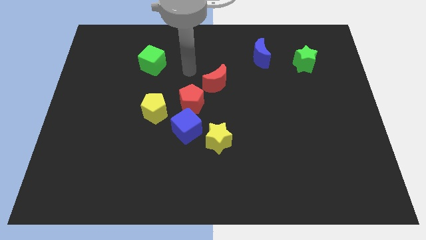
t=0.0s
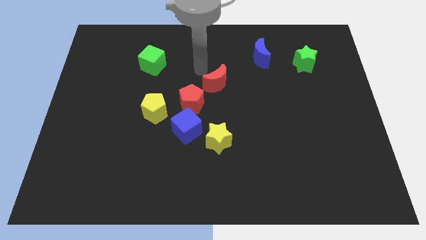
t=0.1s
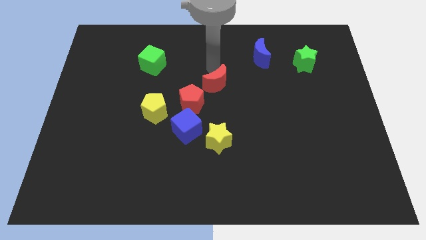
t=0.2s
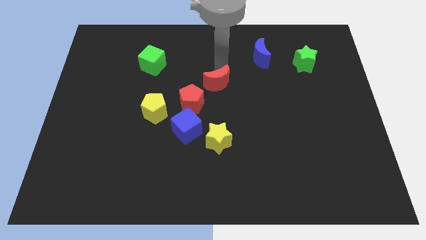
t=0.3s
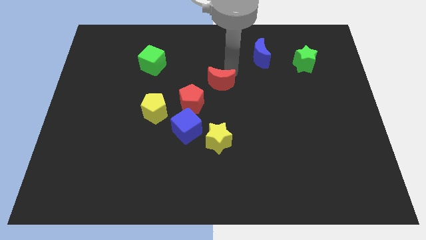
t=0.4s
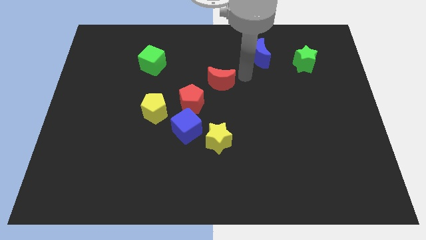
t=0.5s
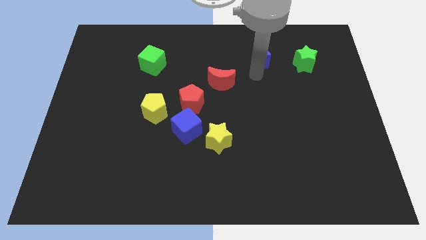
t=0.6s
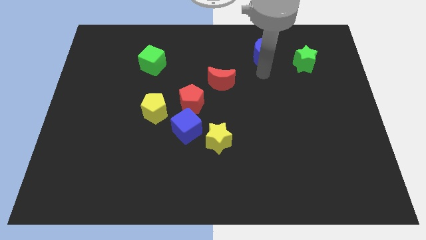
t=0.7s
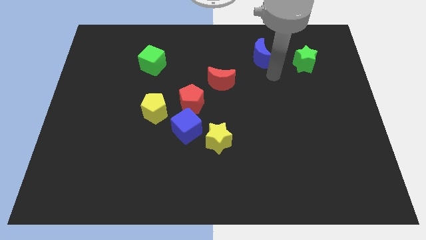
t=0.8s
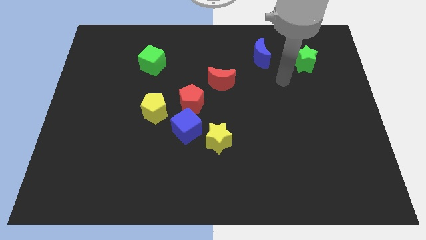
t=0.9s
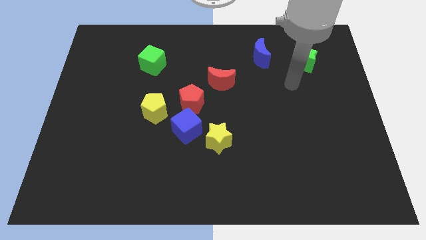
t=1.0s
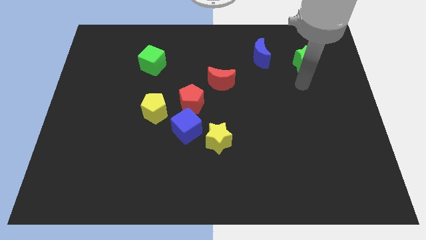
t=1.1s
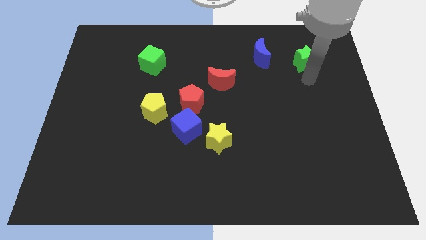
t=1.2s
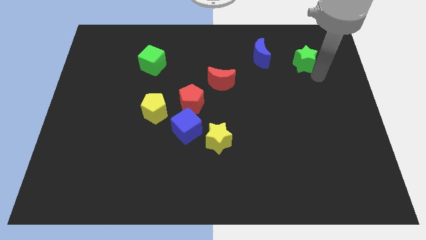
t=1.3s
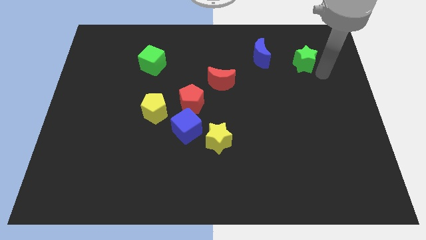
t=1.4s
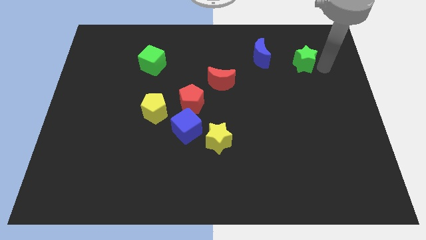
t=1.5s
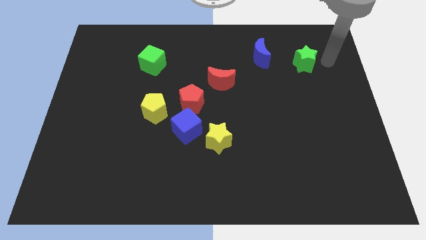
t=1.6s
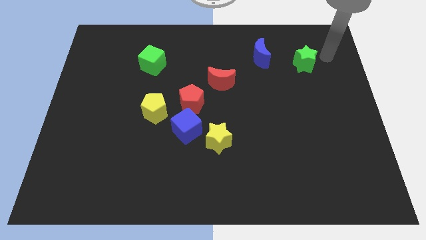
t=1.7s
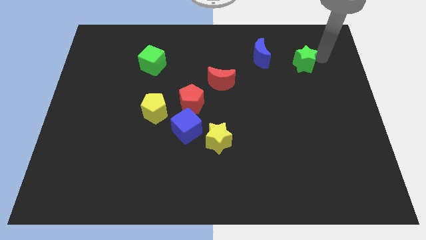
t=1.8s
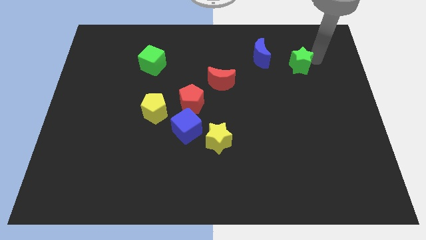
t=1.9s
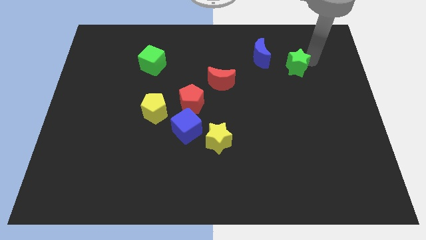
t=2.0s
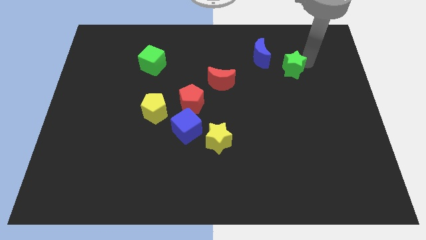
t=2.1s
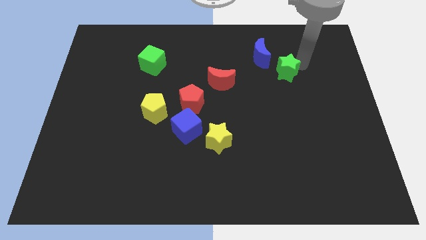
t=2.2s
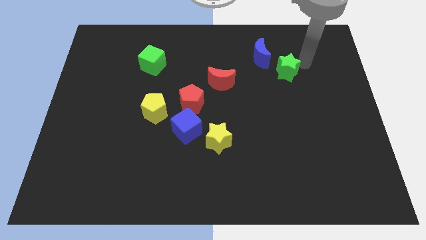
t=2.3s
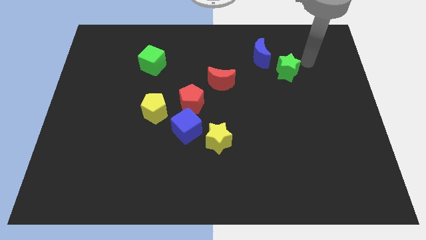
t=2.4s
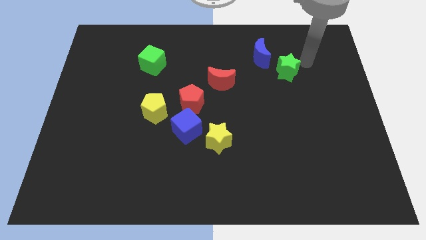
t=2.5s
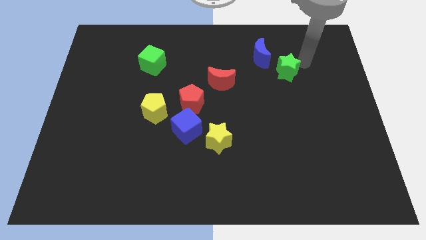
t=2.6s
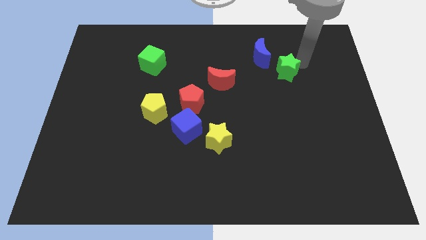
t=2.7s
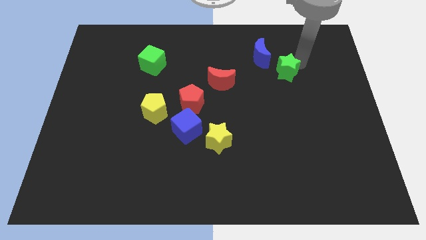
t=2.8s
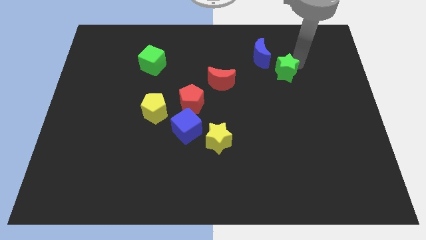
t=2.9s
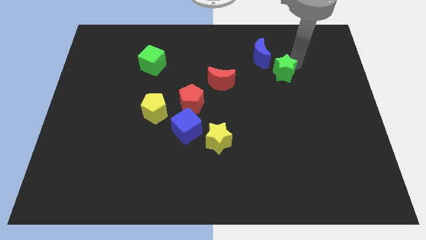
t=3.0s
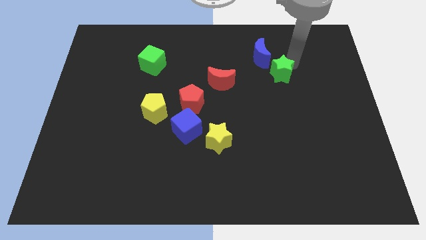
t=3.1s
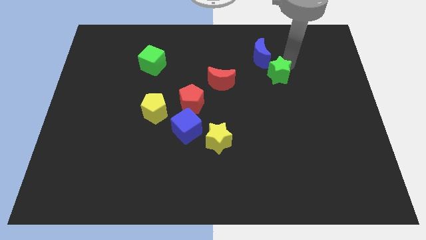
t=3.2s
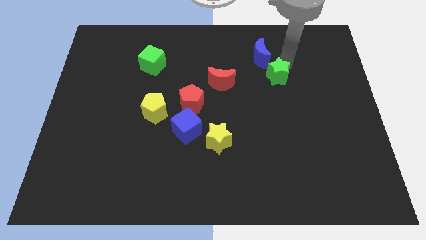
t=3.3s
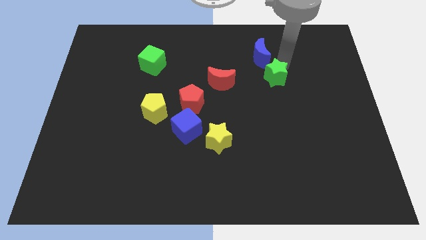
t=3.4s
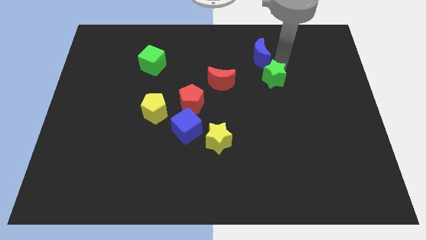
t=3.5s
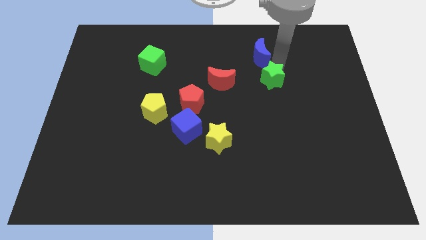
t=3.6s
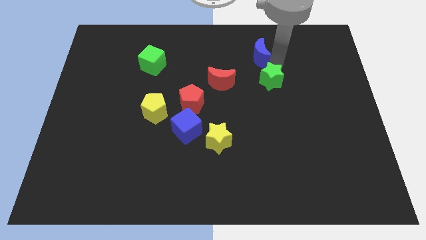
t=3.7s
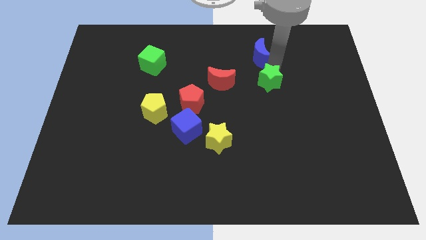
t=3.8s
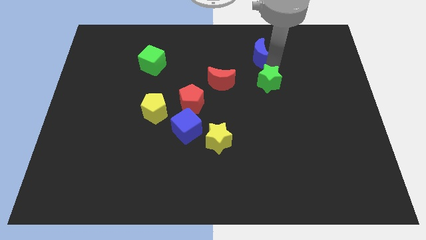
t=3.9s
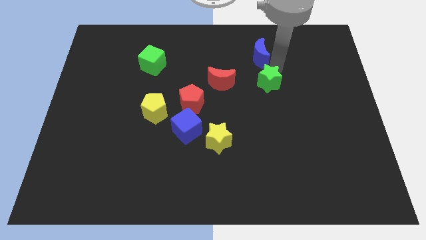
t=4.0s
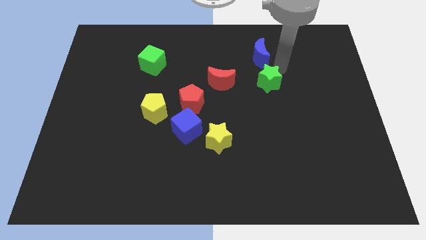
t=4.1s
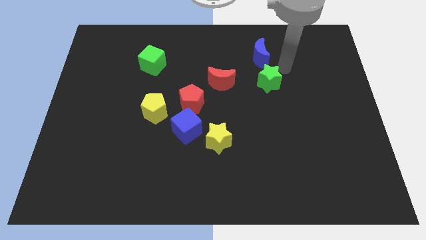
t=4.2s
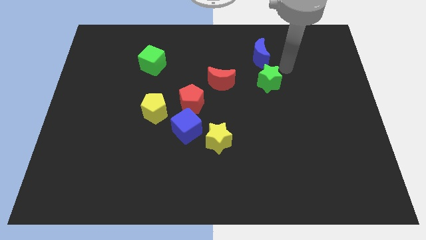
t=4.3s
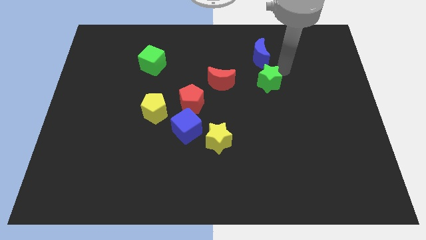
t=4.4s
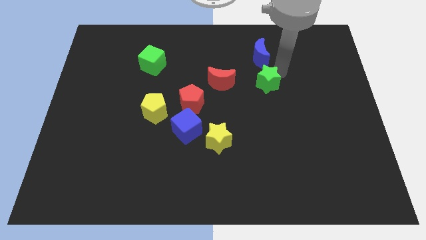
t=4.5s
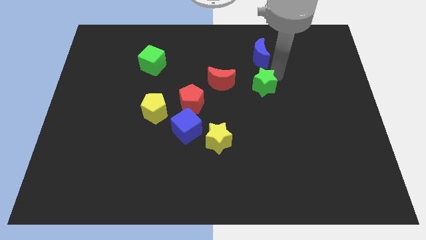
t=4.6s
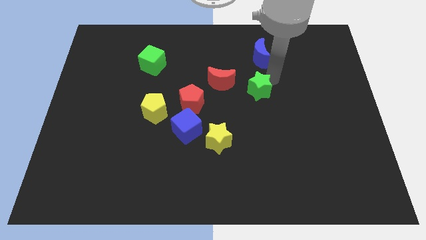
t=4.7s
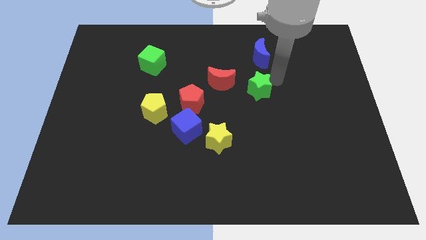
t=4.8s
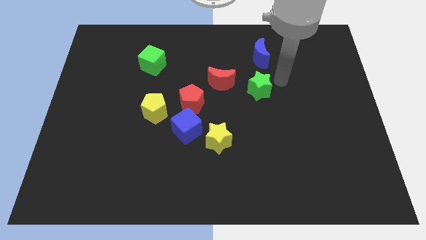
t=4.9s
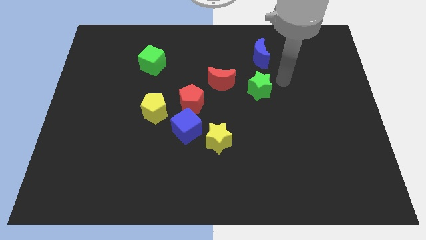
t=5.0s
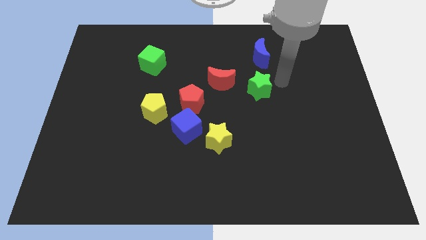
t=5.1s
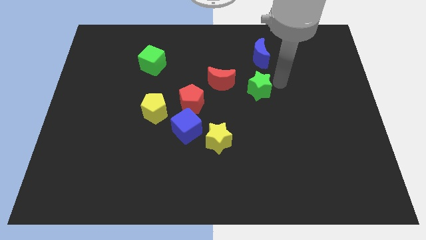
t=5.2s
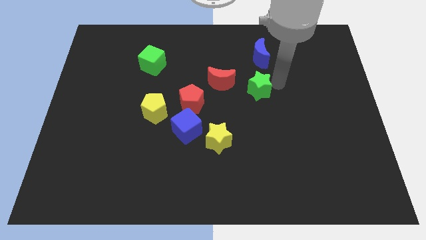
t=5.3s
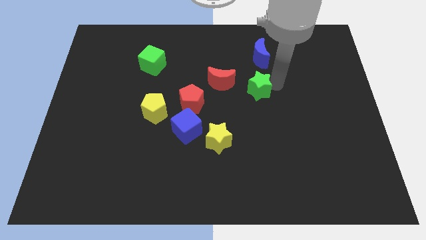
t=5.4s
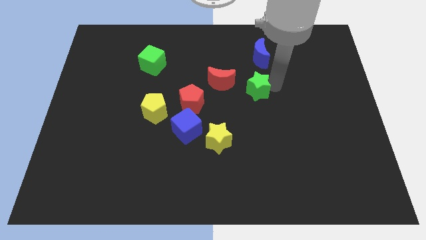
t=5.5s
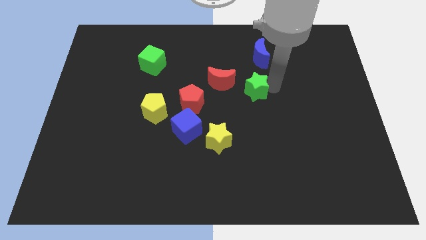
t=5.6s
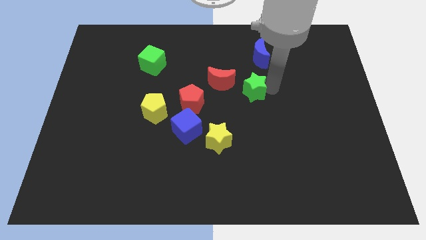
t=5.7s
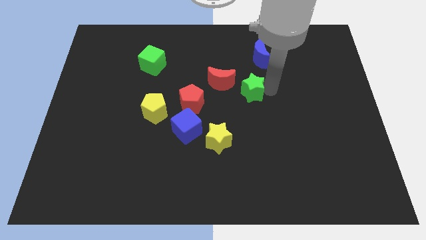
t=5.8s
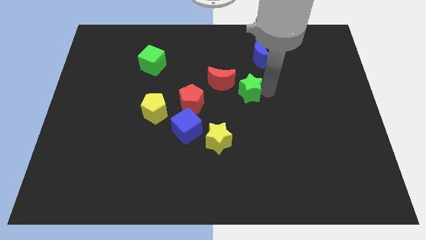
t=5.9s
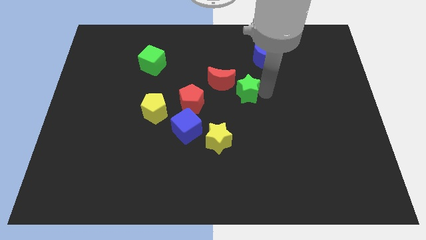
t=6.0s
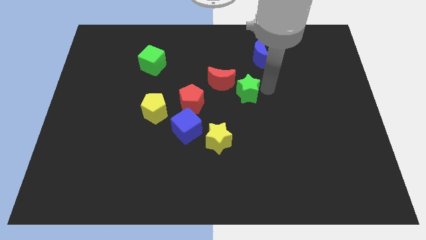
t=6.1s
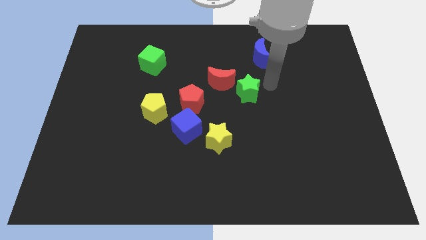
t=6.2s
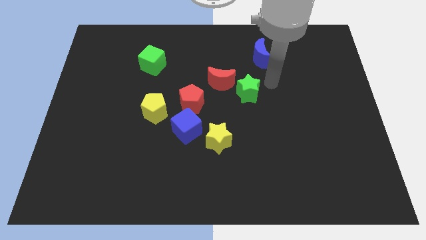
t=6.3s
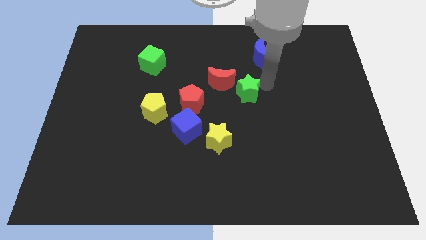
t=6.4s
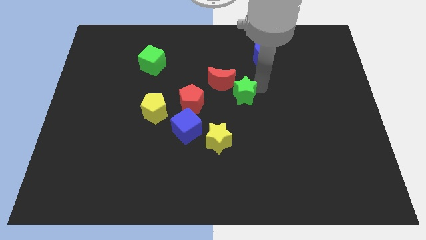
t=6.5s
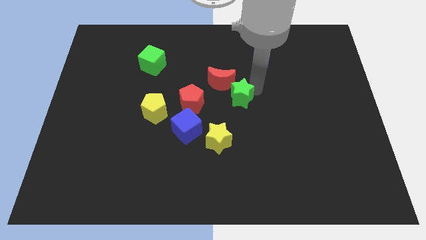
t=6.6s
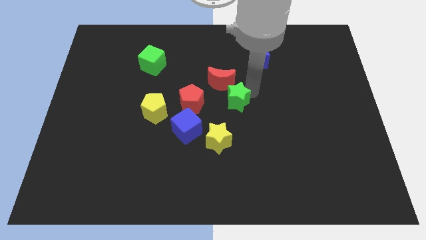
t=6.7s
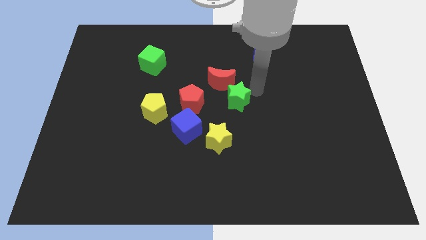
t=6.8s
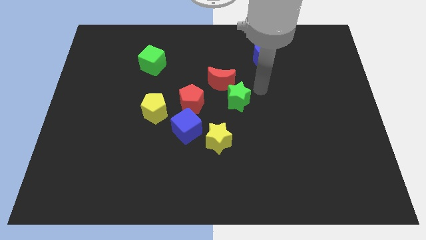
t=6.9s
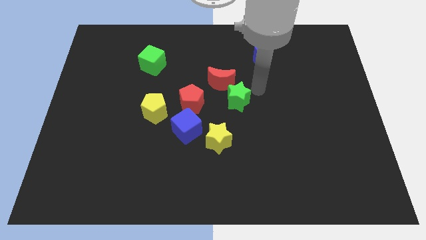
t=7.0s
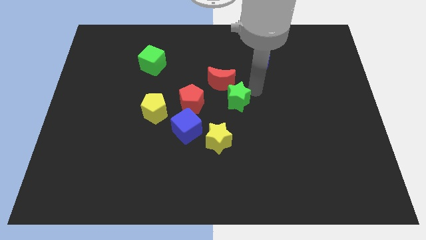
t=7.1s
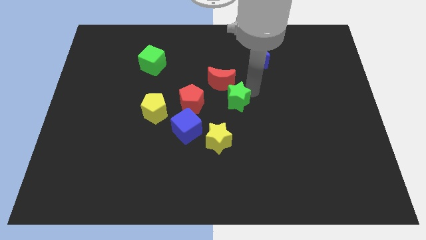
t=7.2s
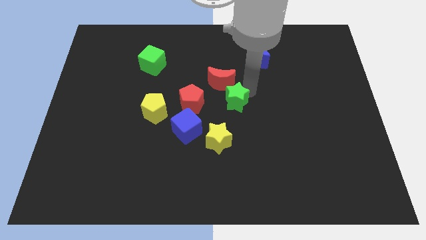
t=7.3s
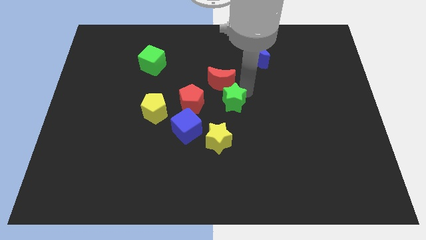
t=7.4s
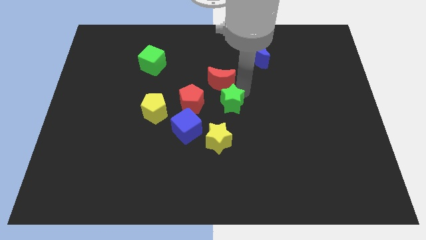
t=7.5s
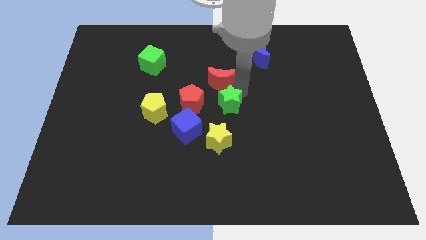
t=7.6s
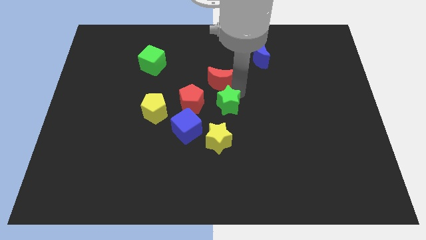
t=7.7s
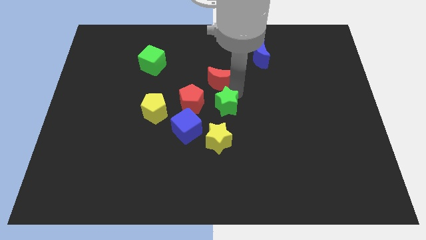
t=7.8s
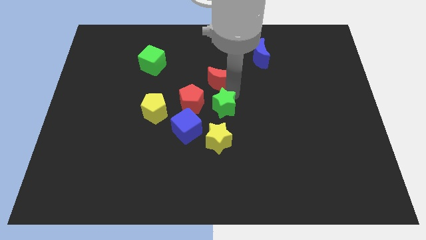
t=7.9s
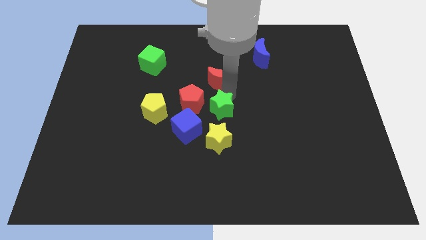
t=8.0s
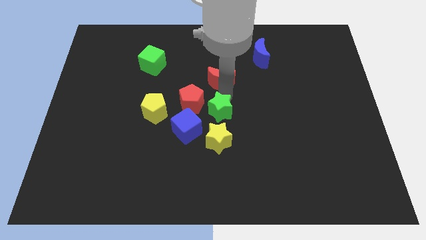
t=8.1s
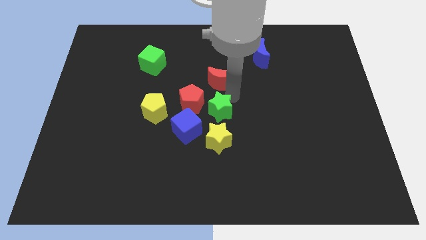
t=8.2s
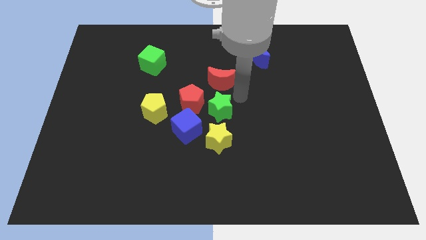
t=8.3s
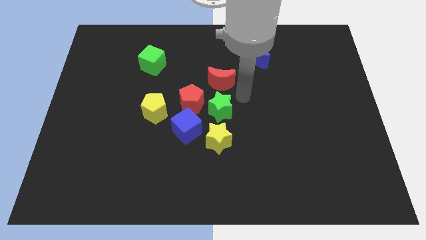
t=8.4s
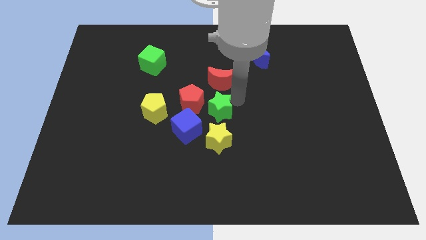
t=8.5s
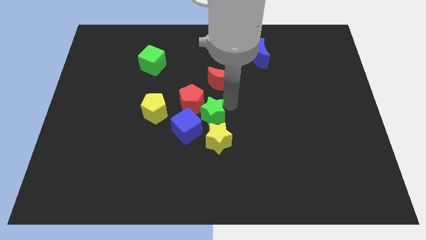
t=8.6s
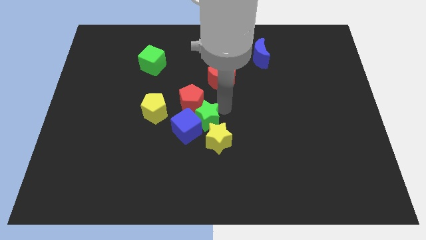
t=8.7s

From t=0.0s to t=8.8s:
put the green star towards the blue cube
